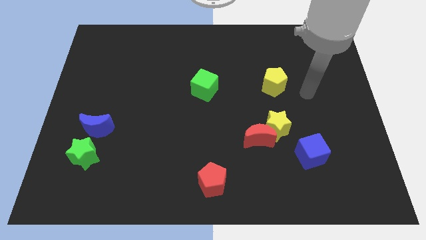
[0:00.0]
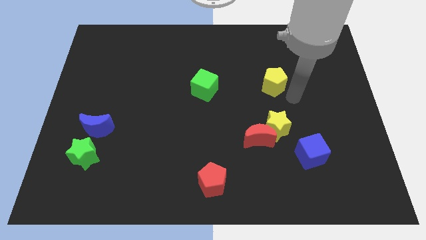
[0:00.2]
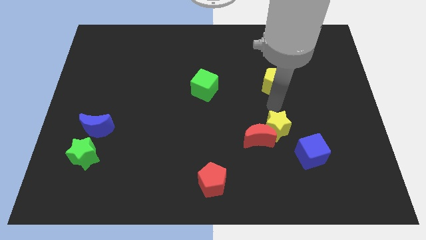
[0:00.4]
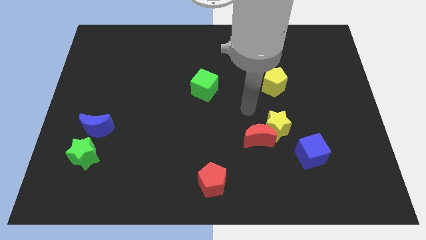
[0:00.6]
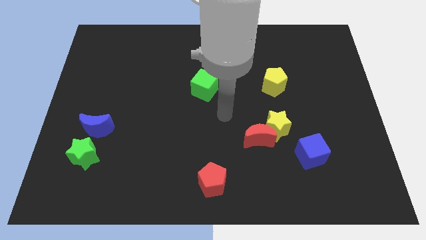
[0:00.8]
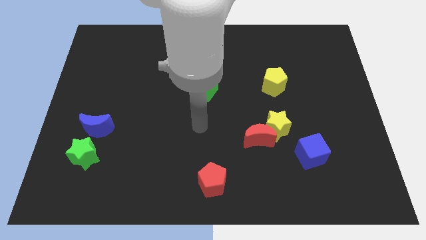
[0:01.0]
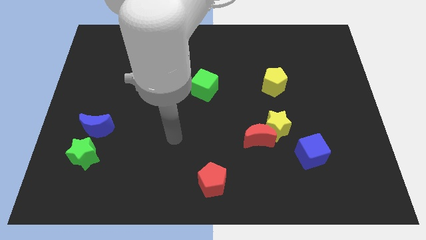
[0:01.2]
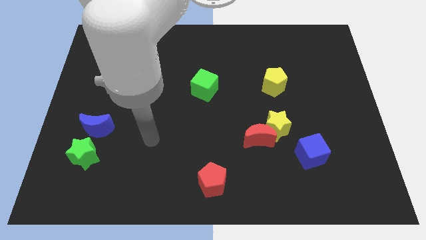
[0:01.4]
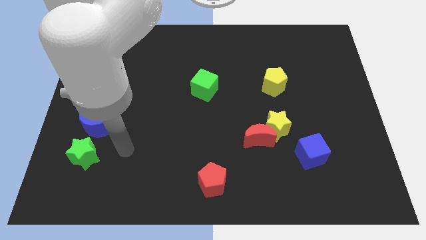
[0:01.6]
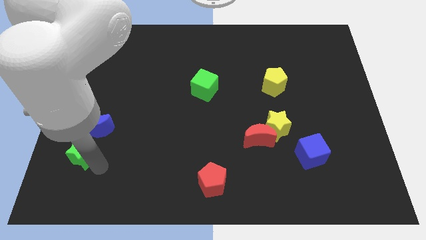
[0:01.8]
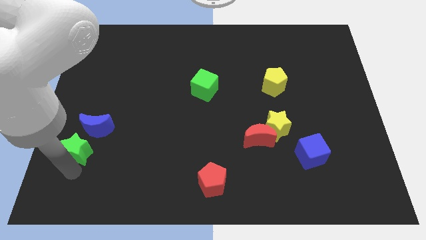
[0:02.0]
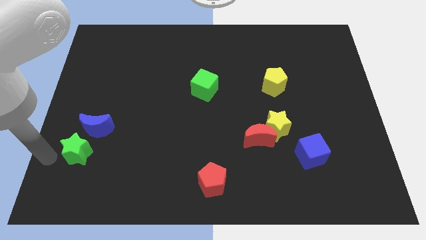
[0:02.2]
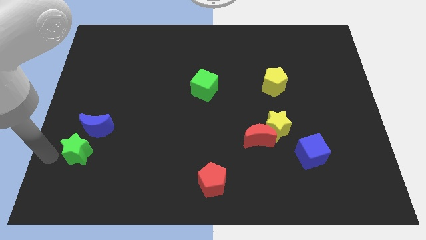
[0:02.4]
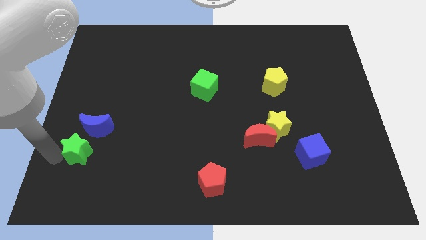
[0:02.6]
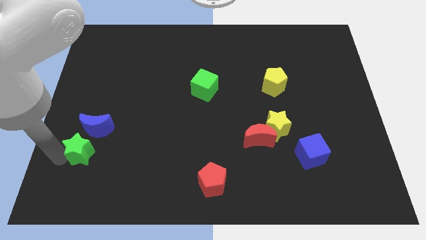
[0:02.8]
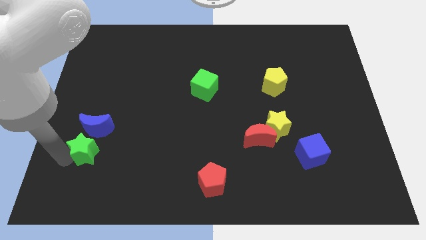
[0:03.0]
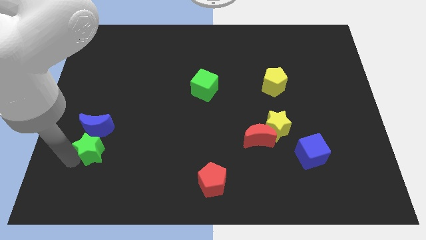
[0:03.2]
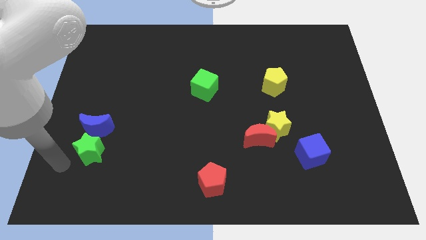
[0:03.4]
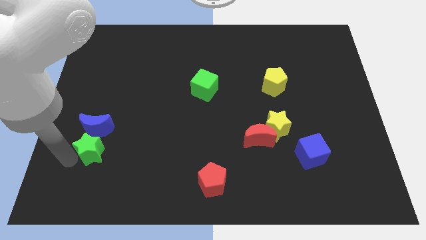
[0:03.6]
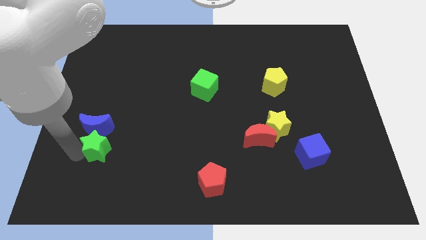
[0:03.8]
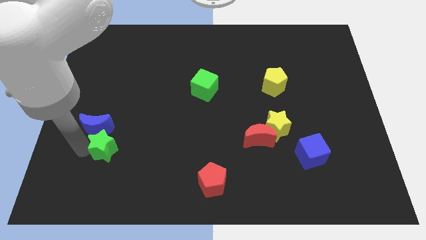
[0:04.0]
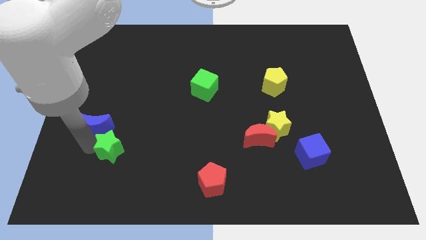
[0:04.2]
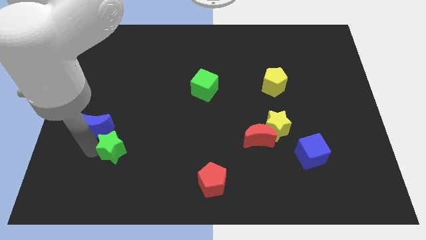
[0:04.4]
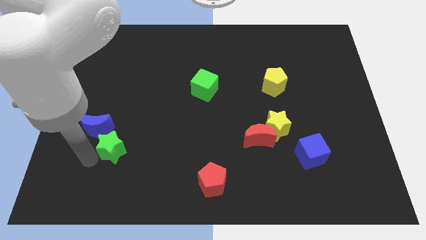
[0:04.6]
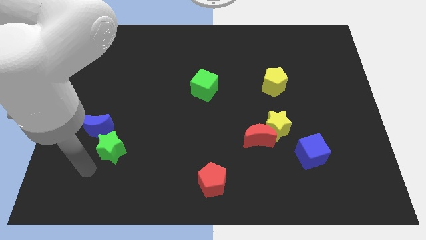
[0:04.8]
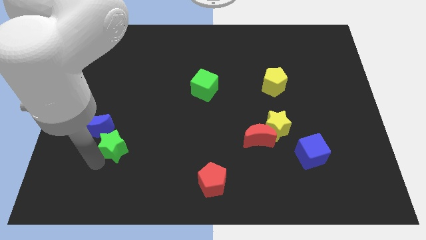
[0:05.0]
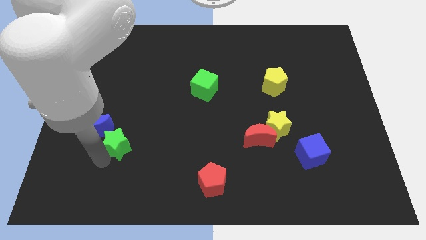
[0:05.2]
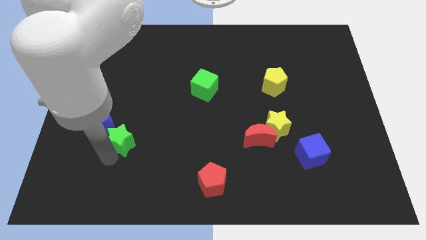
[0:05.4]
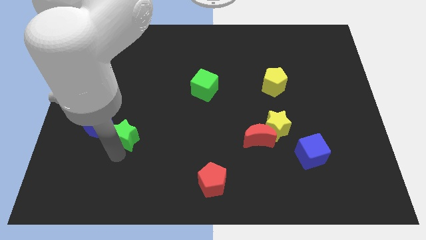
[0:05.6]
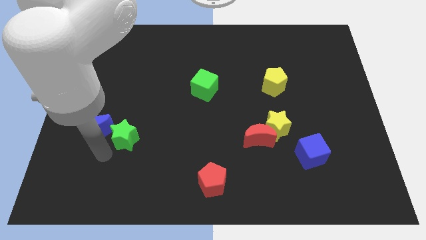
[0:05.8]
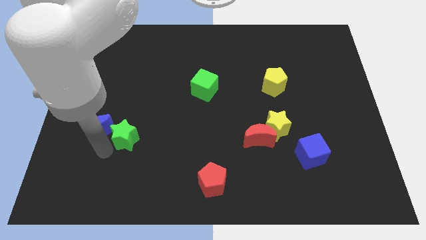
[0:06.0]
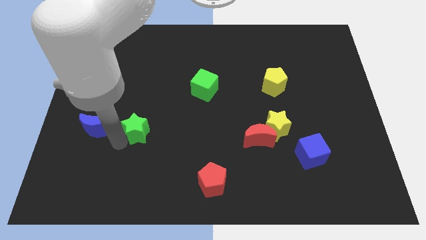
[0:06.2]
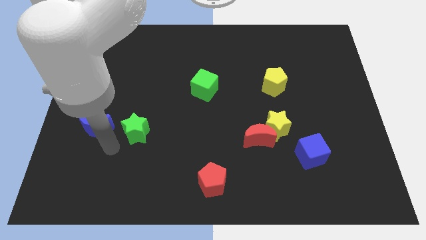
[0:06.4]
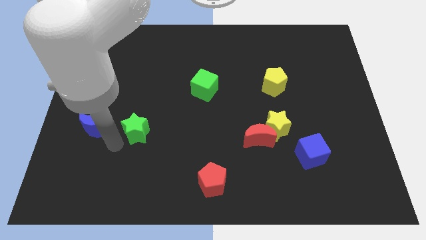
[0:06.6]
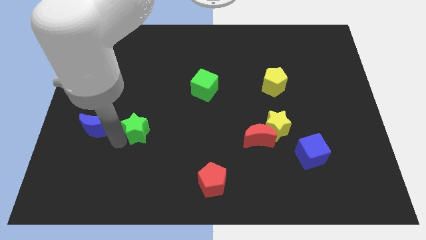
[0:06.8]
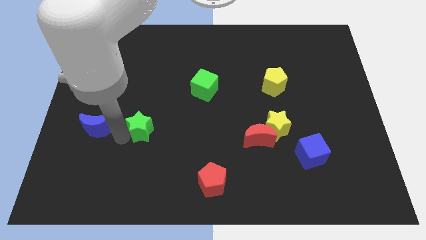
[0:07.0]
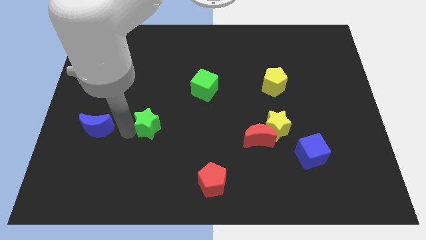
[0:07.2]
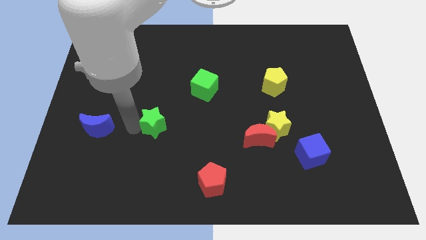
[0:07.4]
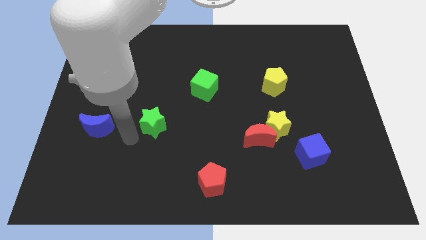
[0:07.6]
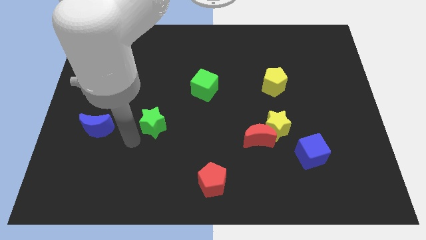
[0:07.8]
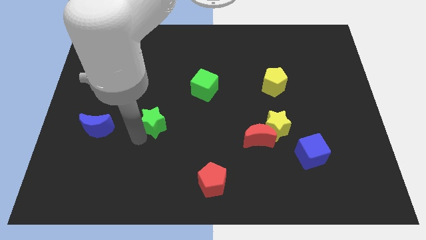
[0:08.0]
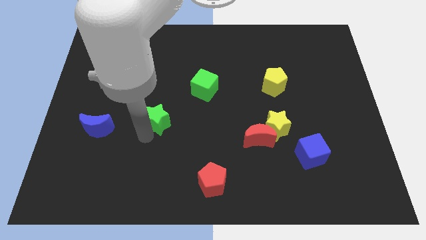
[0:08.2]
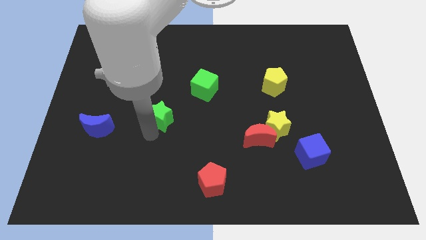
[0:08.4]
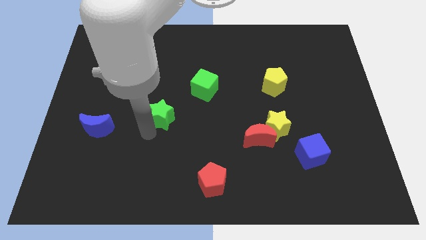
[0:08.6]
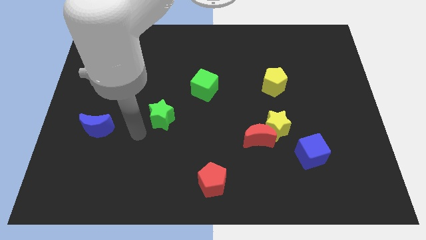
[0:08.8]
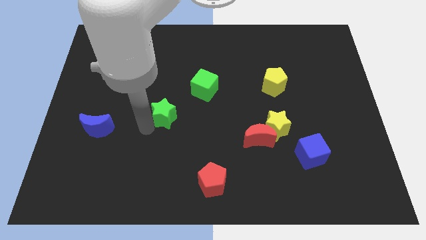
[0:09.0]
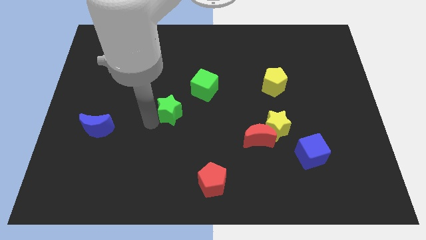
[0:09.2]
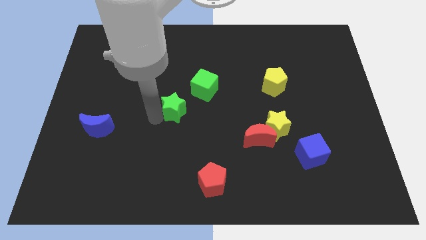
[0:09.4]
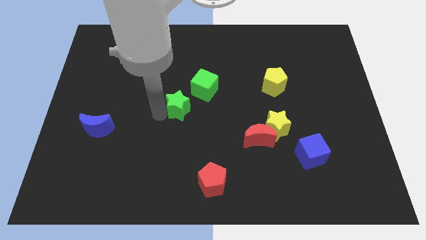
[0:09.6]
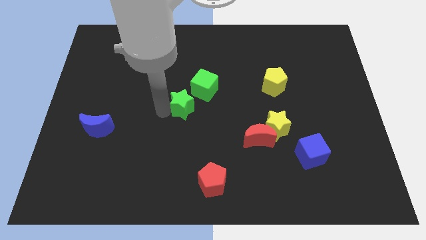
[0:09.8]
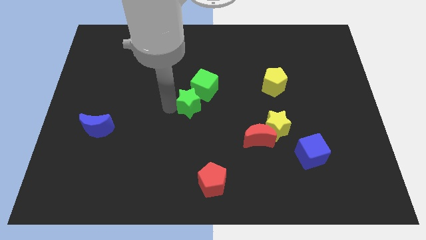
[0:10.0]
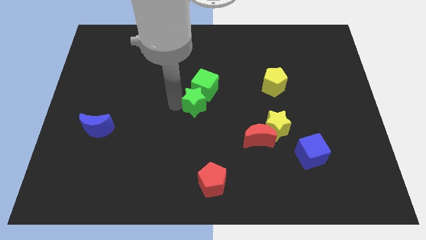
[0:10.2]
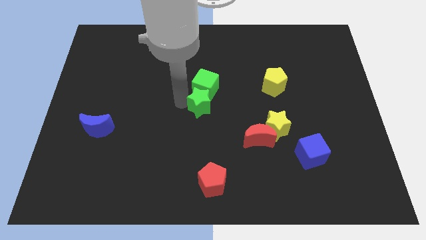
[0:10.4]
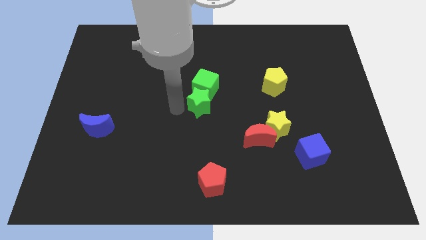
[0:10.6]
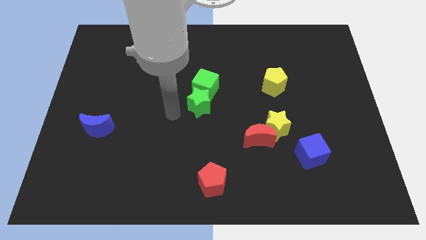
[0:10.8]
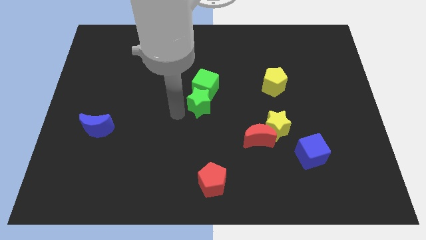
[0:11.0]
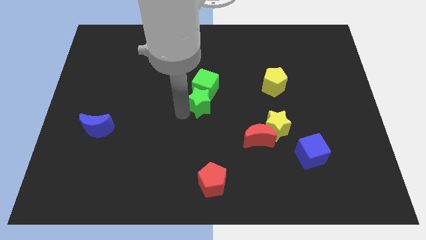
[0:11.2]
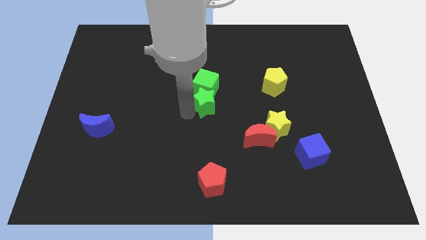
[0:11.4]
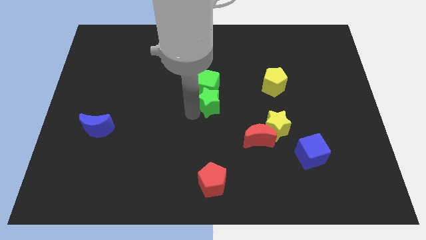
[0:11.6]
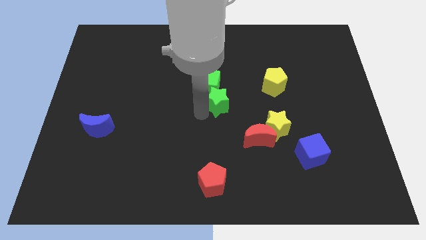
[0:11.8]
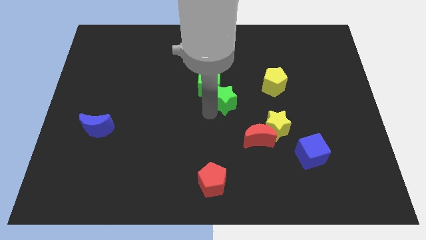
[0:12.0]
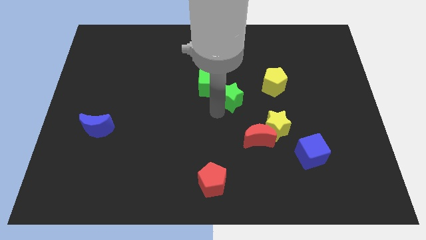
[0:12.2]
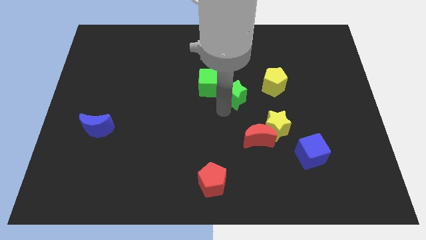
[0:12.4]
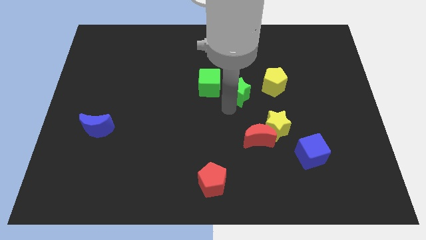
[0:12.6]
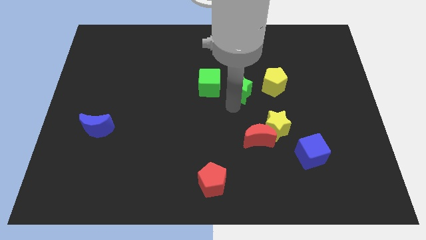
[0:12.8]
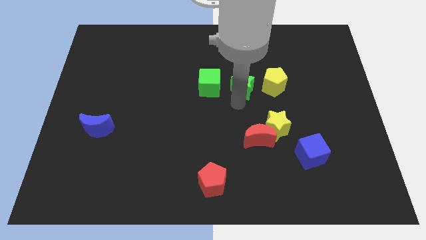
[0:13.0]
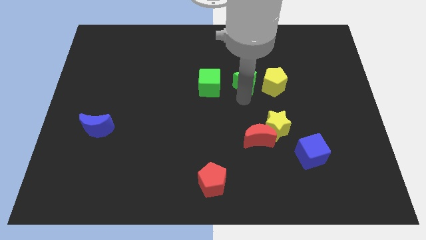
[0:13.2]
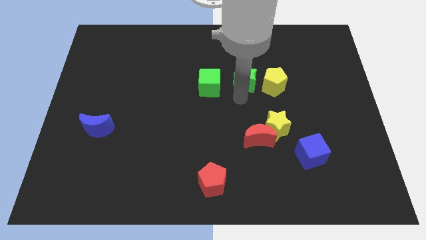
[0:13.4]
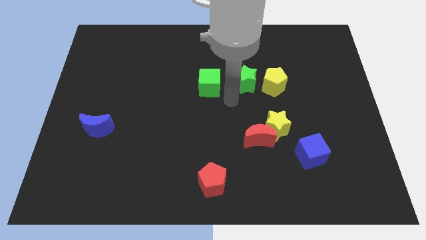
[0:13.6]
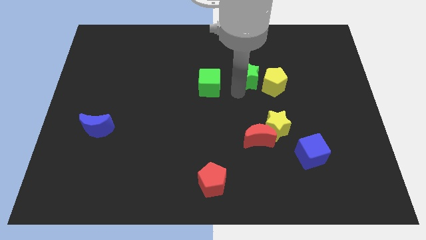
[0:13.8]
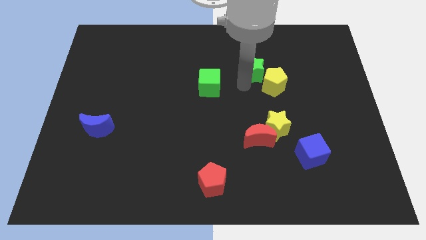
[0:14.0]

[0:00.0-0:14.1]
push the green star to the top of the yellow pentagon
